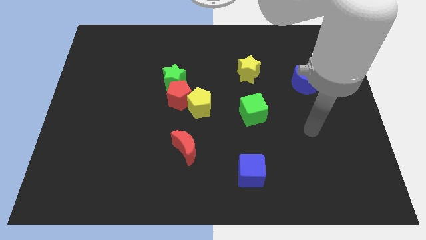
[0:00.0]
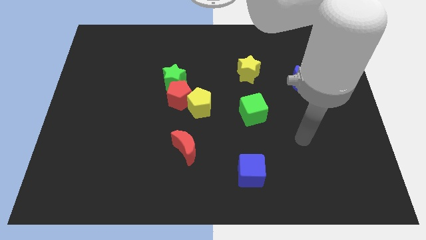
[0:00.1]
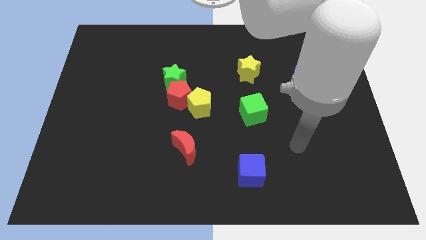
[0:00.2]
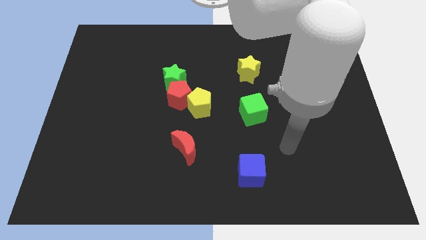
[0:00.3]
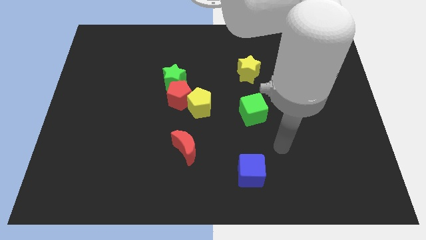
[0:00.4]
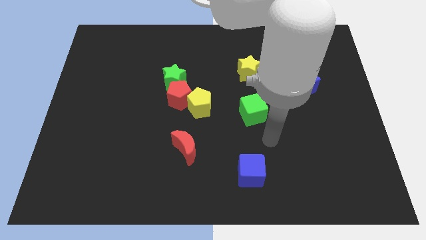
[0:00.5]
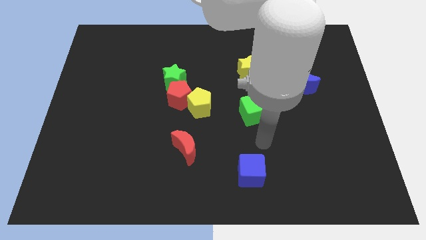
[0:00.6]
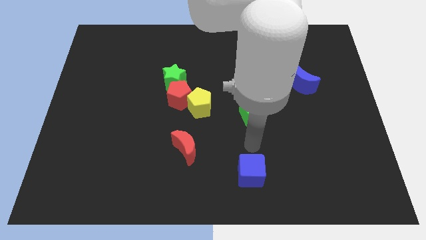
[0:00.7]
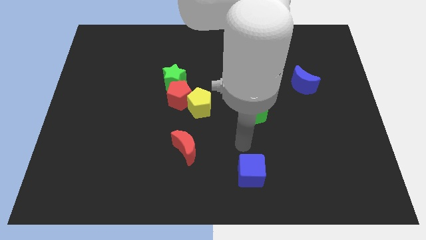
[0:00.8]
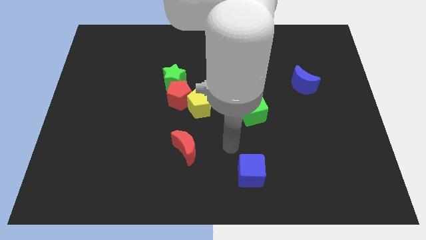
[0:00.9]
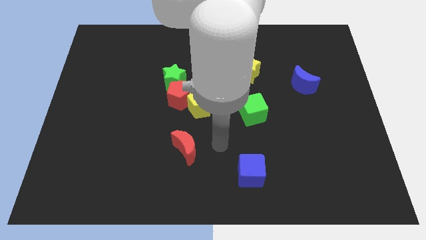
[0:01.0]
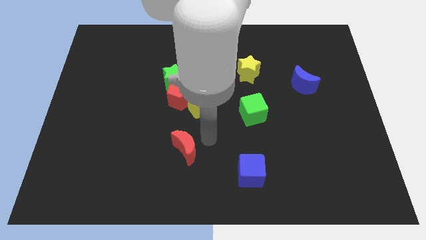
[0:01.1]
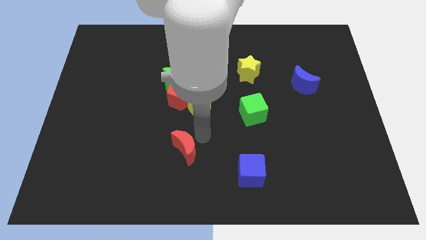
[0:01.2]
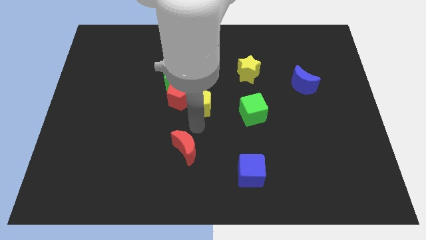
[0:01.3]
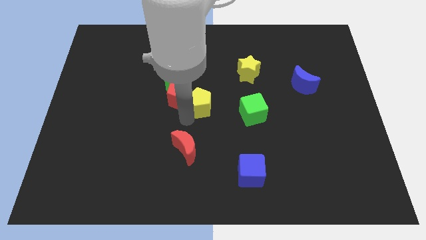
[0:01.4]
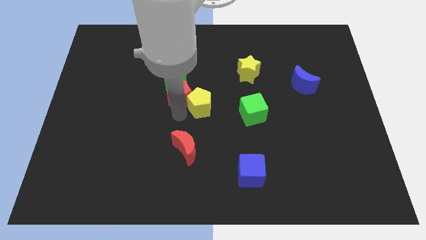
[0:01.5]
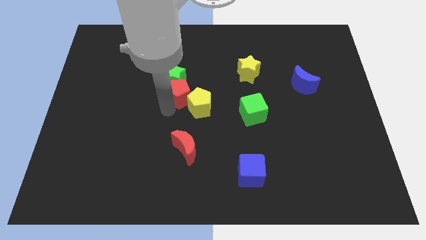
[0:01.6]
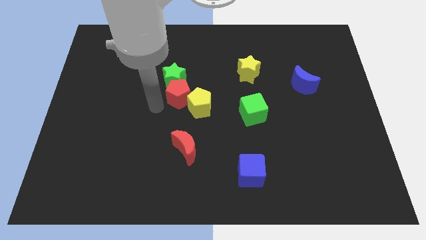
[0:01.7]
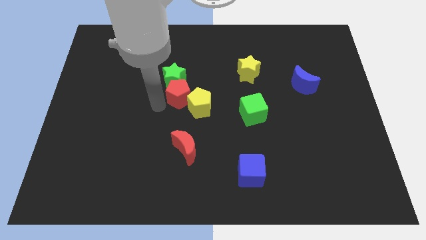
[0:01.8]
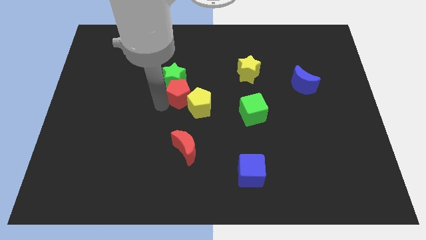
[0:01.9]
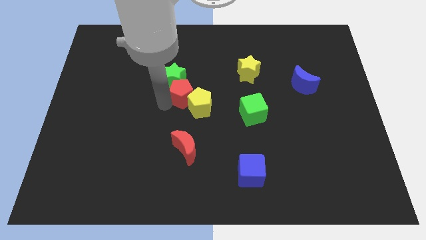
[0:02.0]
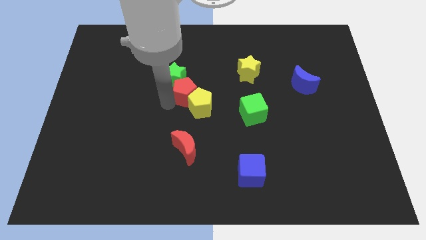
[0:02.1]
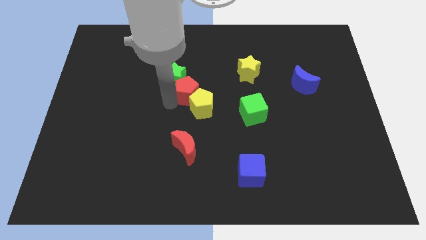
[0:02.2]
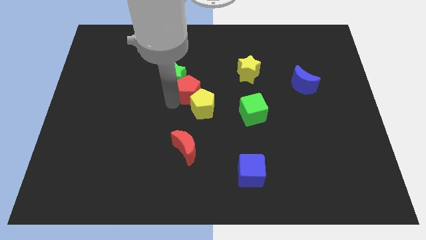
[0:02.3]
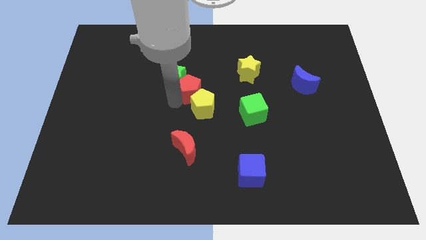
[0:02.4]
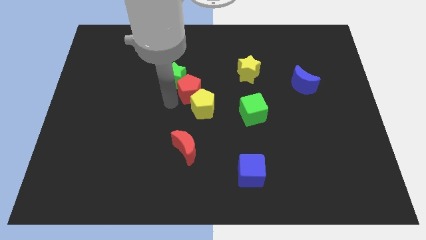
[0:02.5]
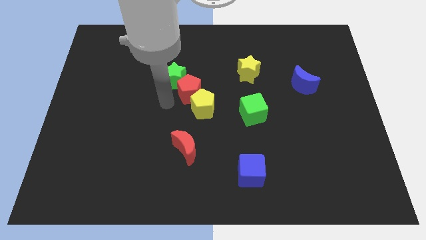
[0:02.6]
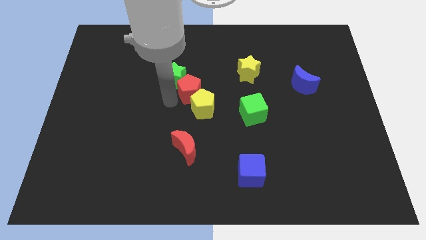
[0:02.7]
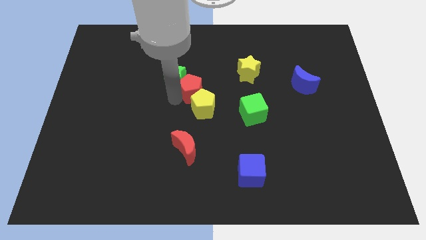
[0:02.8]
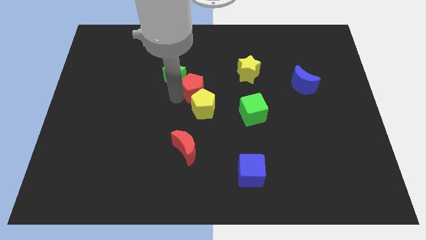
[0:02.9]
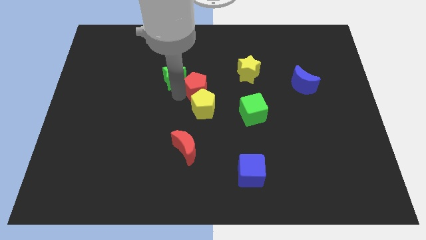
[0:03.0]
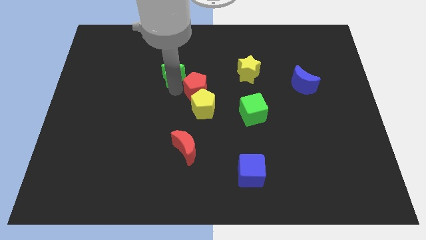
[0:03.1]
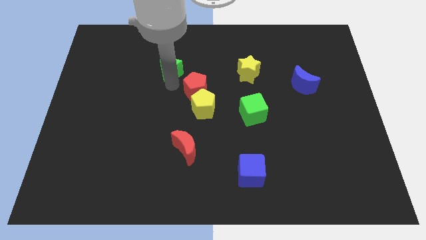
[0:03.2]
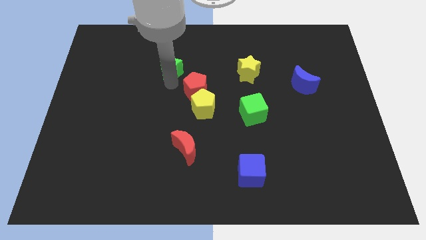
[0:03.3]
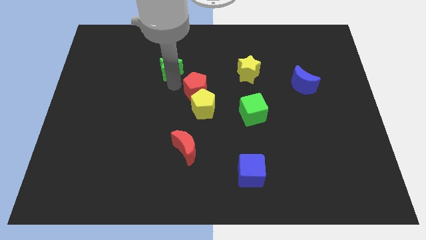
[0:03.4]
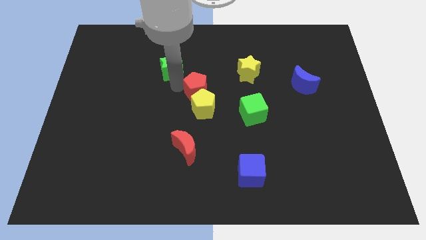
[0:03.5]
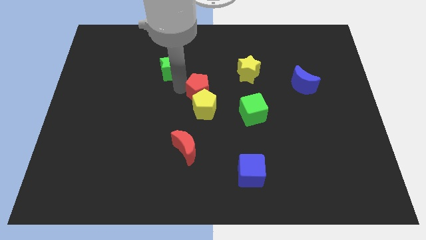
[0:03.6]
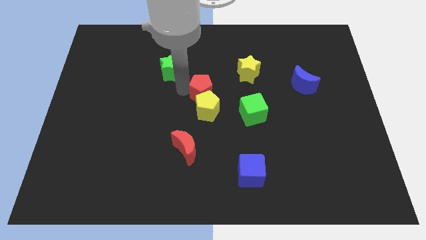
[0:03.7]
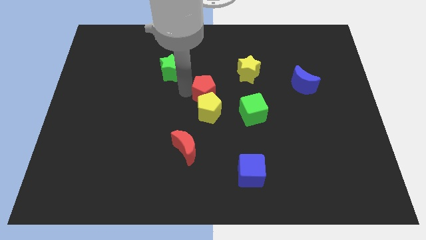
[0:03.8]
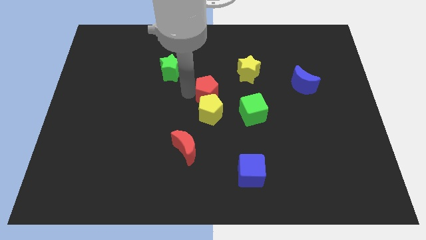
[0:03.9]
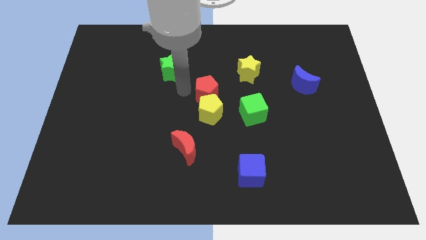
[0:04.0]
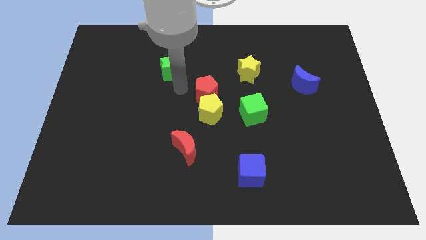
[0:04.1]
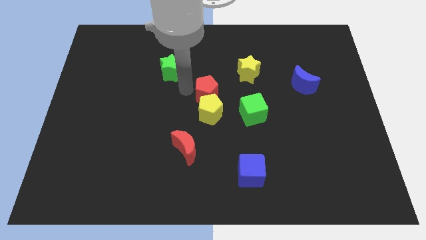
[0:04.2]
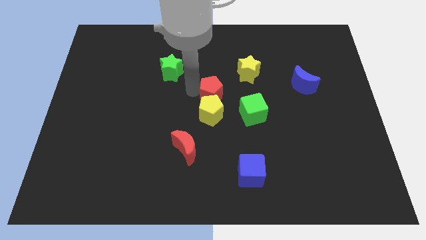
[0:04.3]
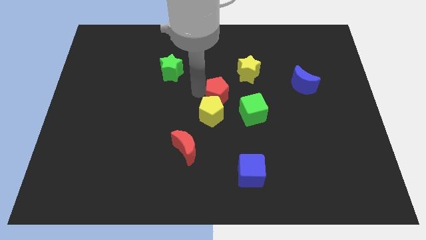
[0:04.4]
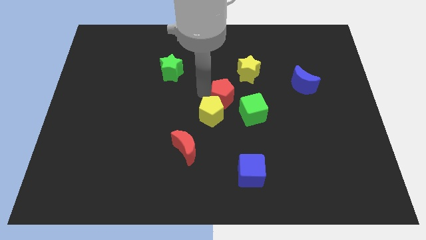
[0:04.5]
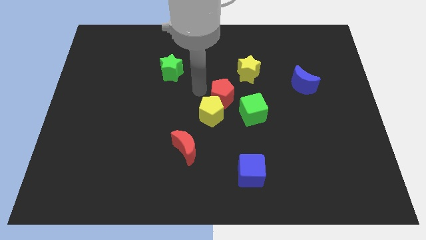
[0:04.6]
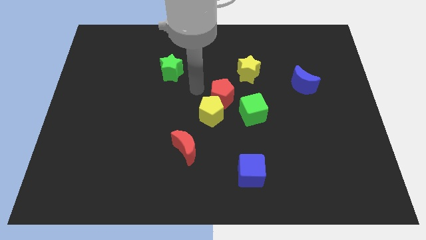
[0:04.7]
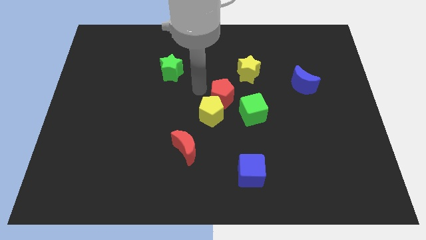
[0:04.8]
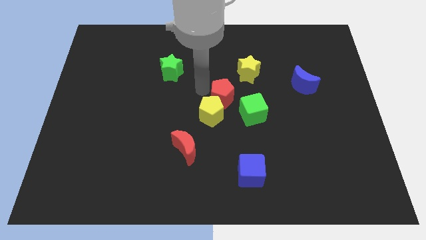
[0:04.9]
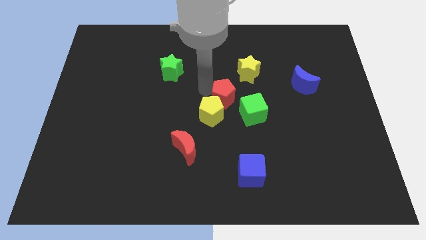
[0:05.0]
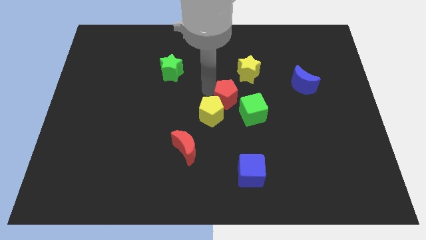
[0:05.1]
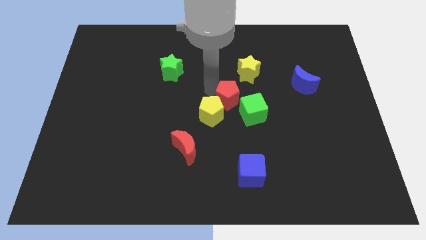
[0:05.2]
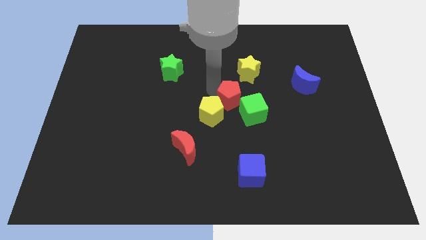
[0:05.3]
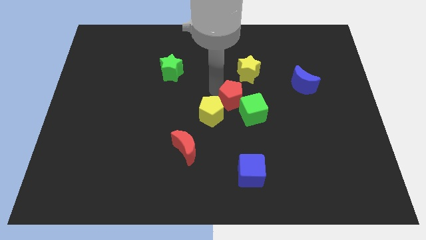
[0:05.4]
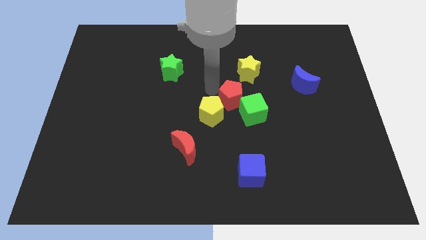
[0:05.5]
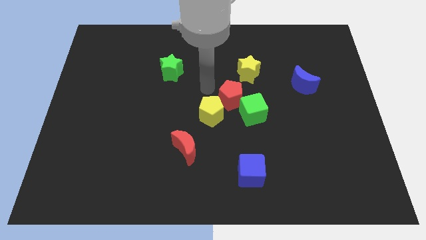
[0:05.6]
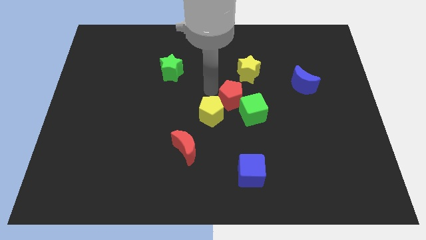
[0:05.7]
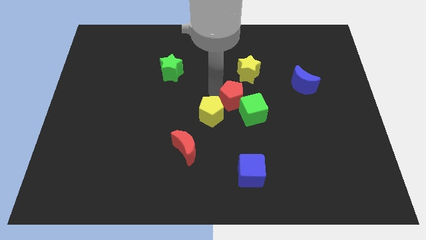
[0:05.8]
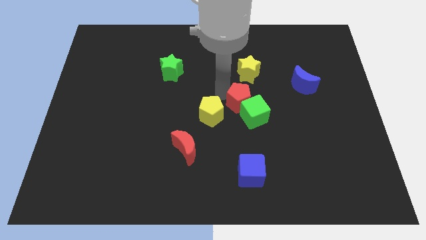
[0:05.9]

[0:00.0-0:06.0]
push the red pentagon to the green cube

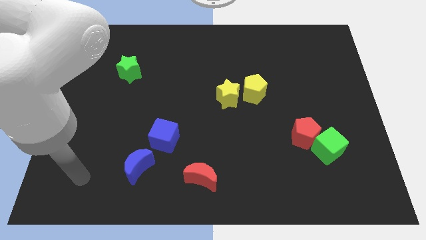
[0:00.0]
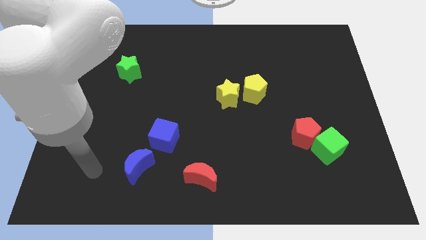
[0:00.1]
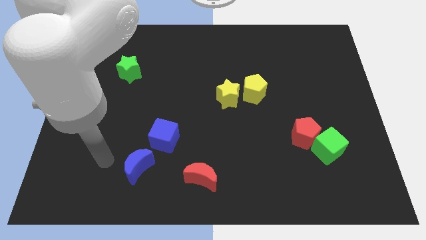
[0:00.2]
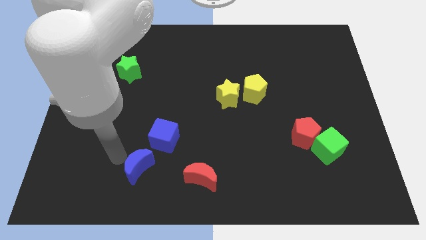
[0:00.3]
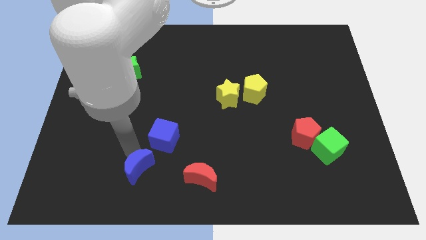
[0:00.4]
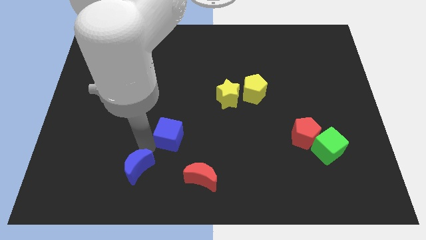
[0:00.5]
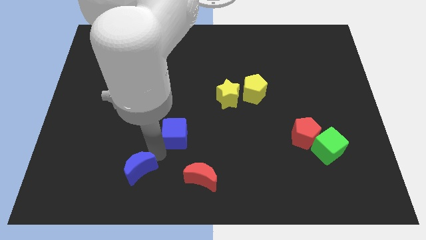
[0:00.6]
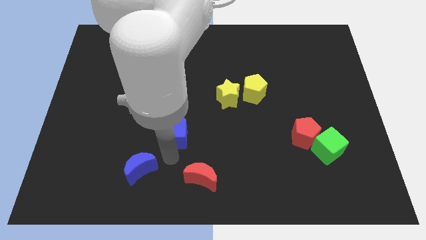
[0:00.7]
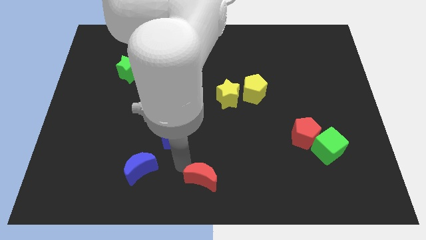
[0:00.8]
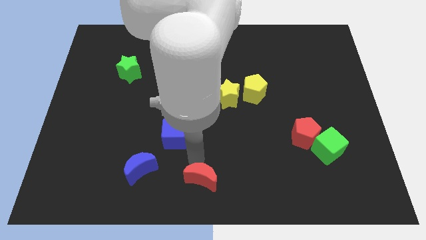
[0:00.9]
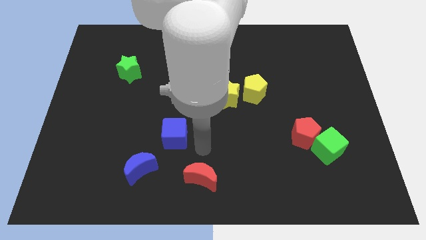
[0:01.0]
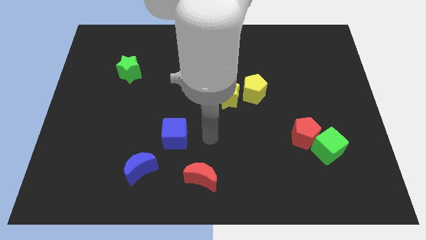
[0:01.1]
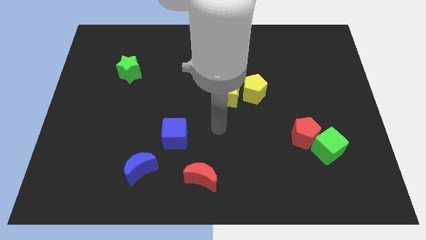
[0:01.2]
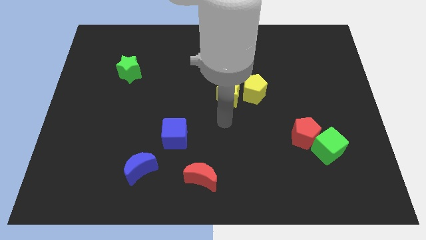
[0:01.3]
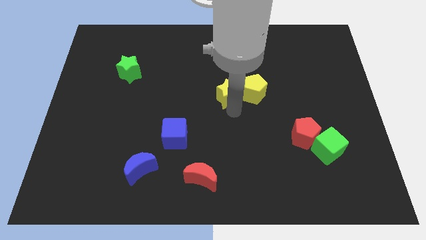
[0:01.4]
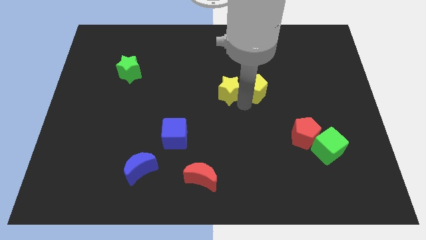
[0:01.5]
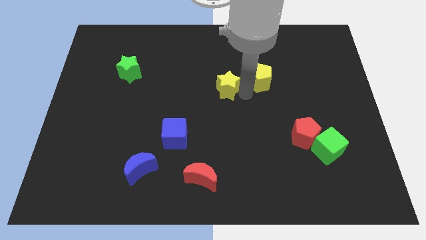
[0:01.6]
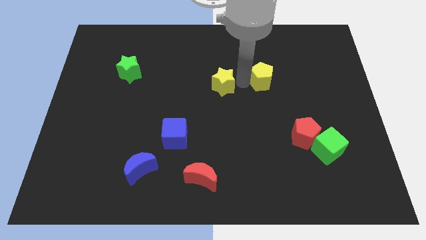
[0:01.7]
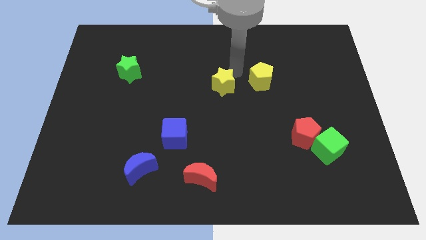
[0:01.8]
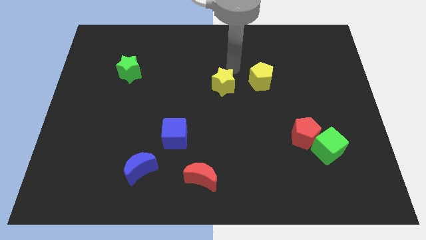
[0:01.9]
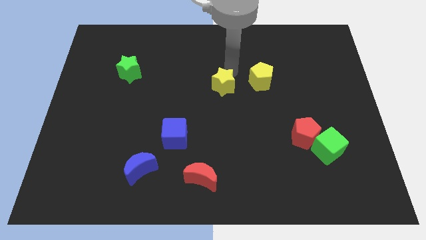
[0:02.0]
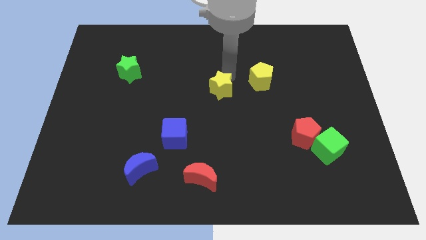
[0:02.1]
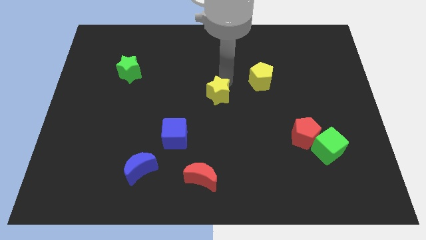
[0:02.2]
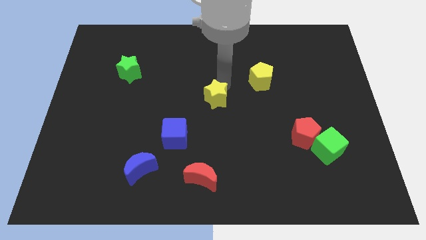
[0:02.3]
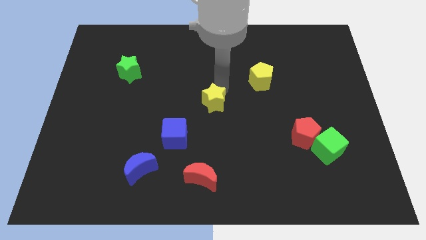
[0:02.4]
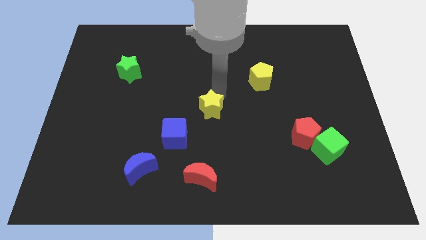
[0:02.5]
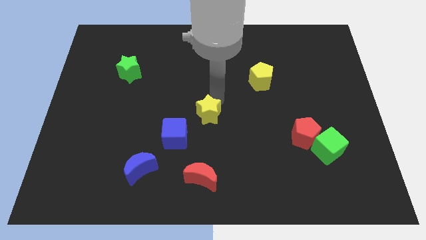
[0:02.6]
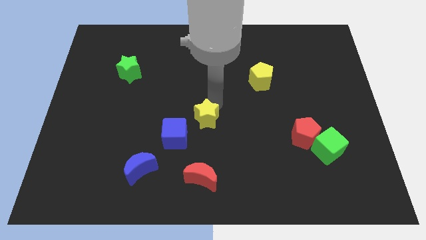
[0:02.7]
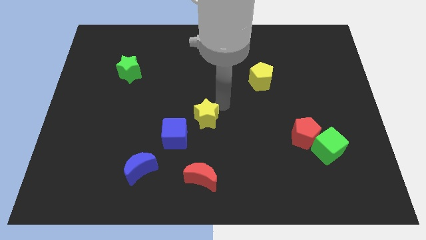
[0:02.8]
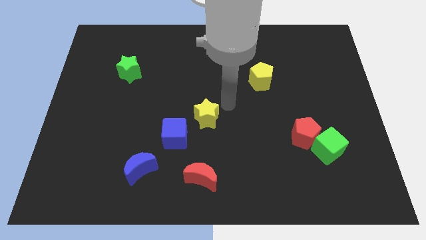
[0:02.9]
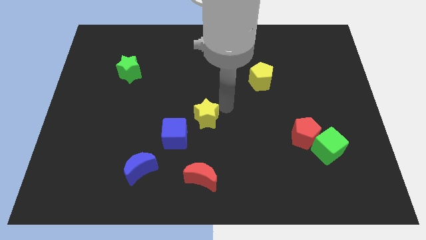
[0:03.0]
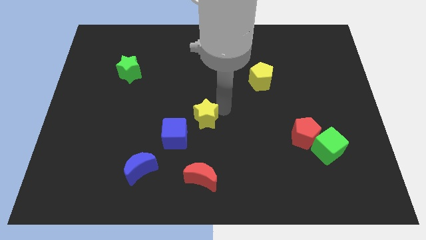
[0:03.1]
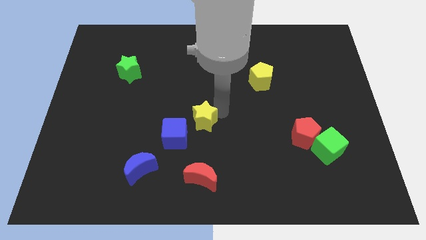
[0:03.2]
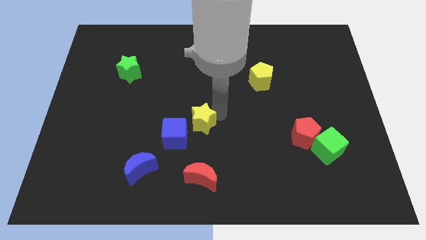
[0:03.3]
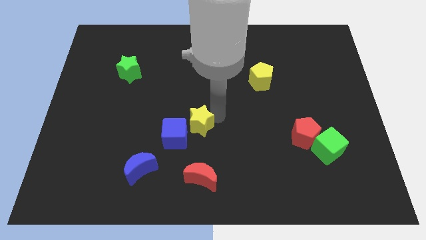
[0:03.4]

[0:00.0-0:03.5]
put the yellow star towards the blue cube
